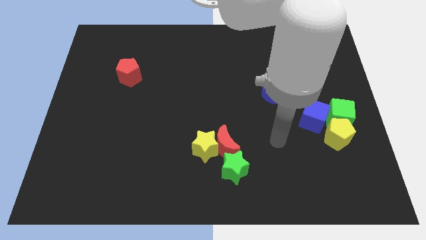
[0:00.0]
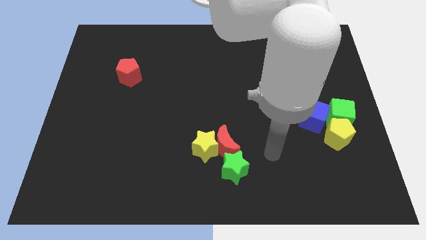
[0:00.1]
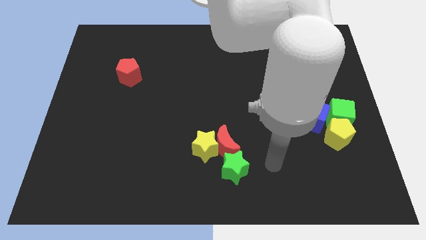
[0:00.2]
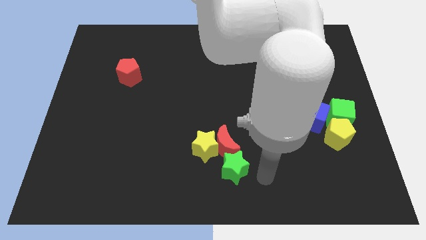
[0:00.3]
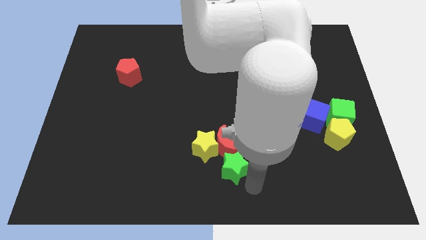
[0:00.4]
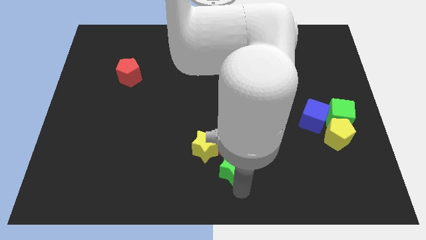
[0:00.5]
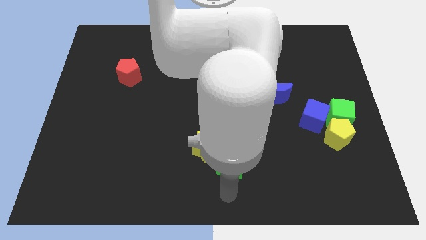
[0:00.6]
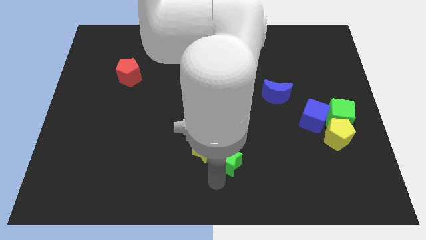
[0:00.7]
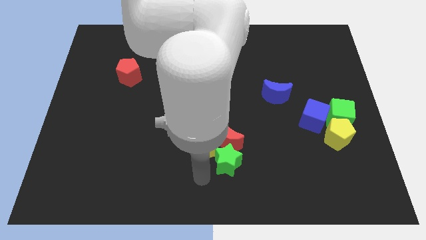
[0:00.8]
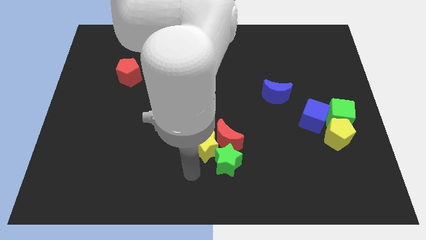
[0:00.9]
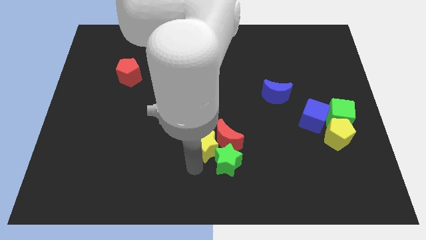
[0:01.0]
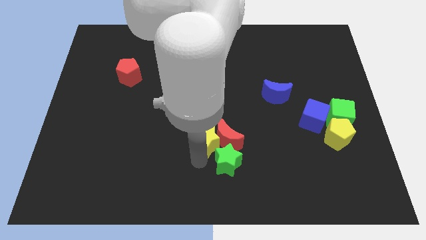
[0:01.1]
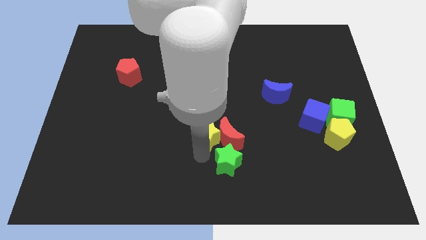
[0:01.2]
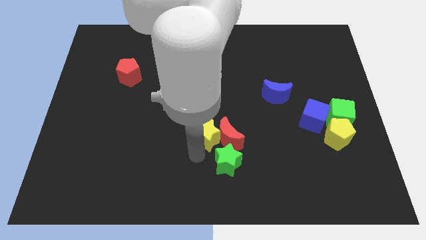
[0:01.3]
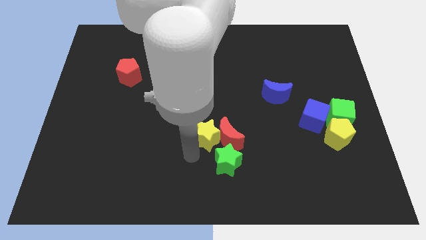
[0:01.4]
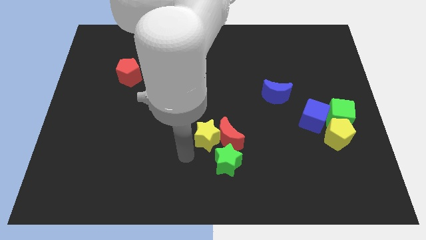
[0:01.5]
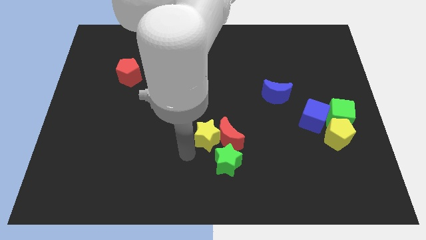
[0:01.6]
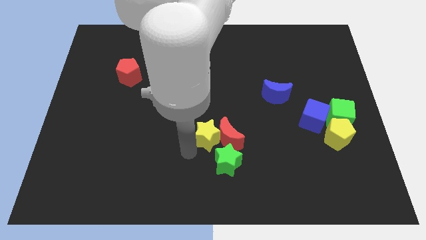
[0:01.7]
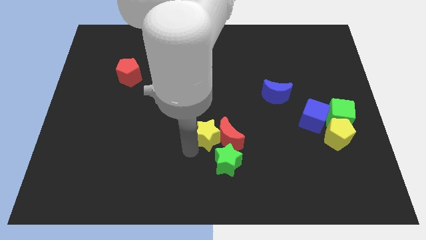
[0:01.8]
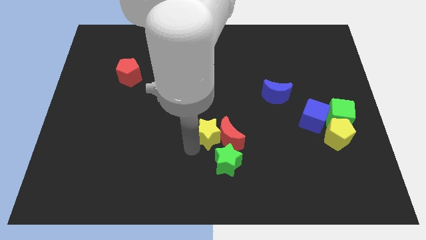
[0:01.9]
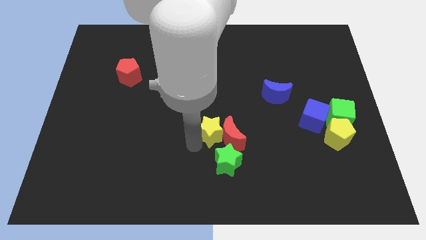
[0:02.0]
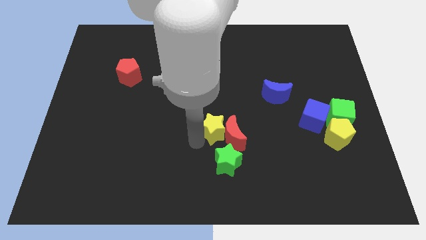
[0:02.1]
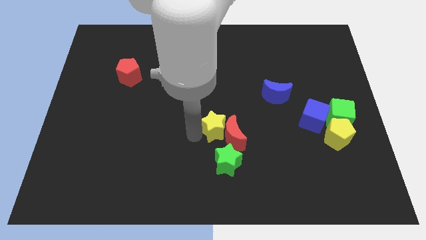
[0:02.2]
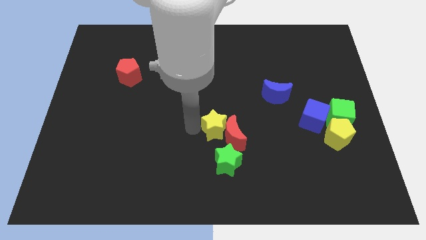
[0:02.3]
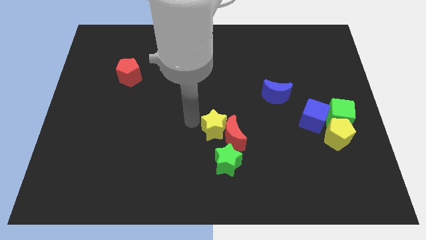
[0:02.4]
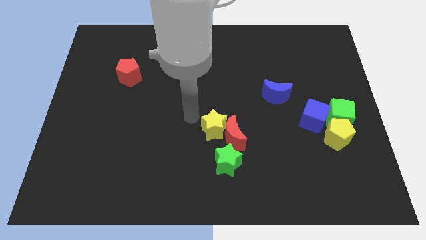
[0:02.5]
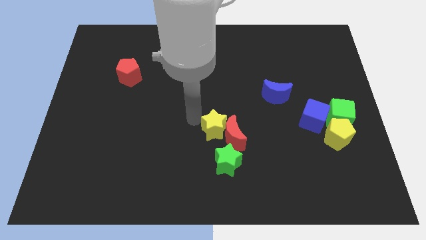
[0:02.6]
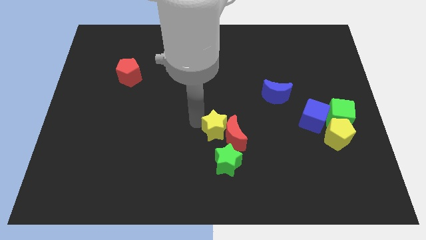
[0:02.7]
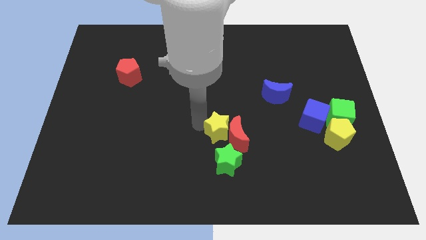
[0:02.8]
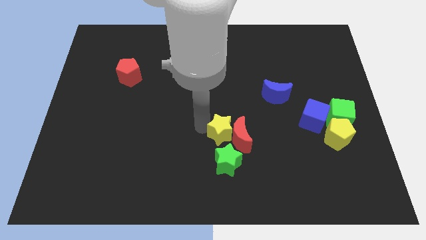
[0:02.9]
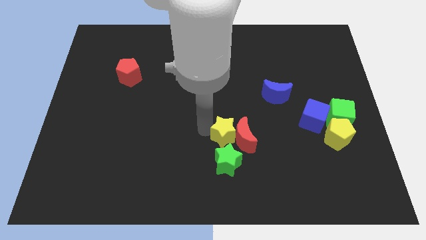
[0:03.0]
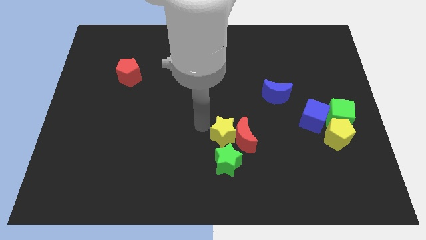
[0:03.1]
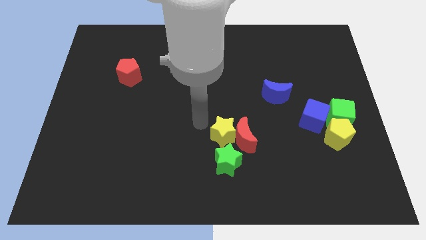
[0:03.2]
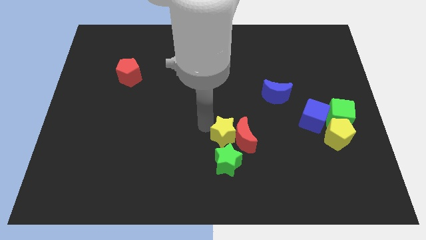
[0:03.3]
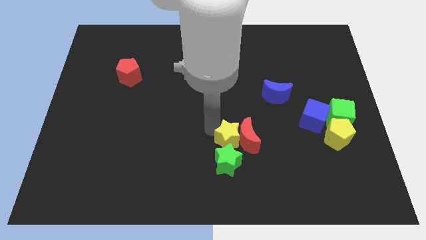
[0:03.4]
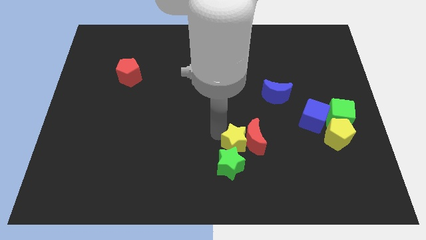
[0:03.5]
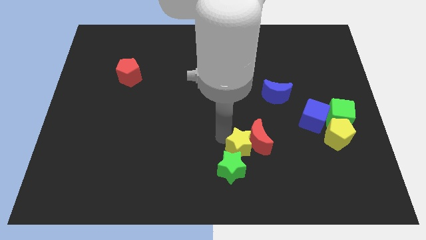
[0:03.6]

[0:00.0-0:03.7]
slightly slide the yellow star to the right

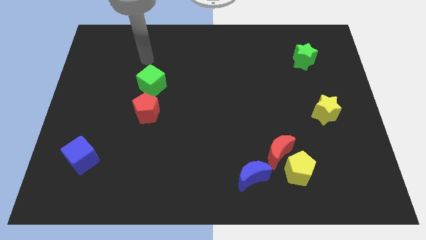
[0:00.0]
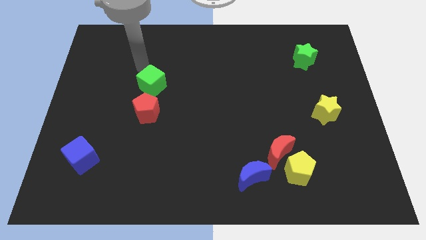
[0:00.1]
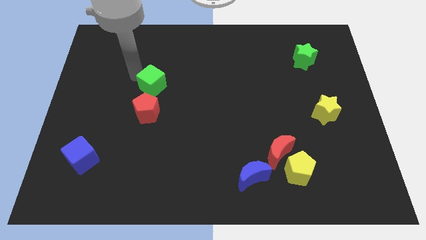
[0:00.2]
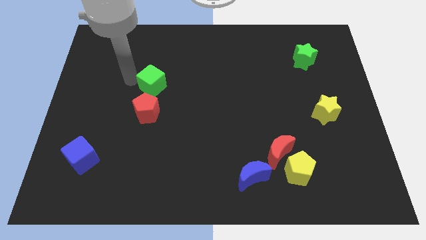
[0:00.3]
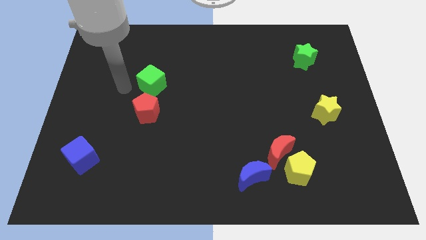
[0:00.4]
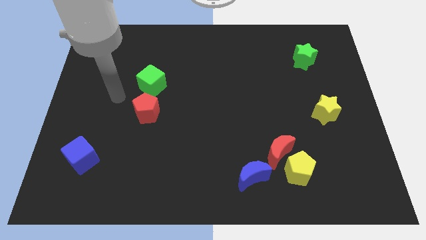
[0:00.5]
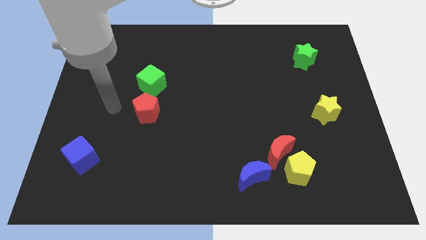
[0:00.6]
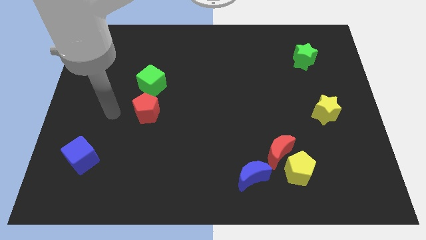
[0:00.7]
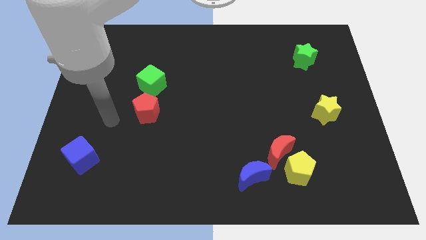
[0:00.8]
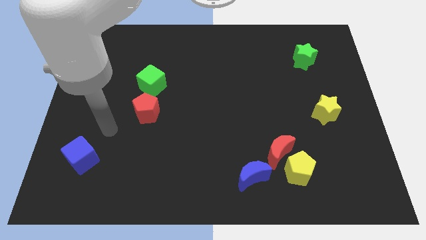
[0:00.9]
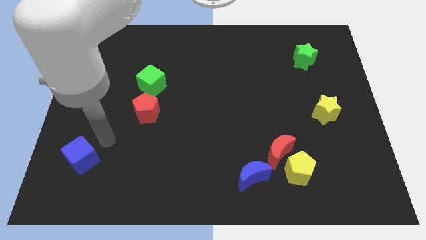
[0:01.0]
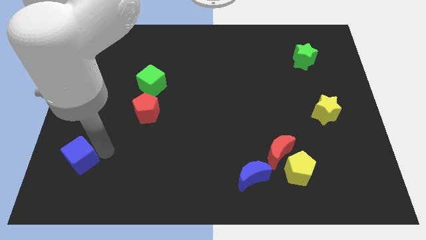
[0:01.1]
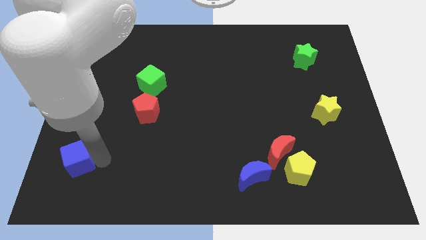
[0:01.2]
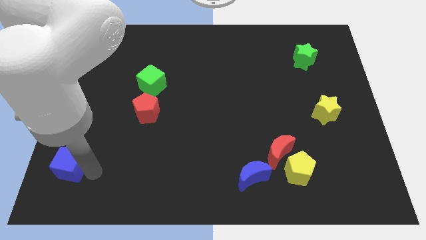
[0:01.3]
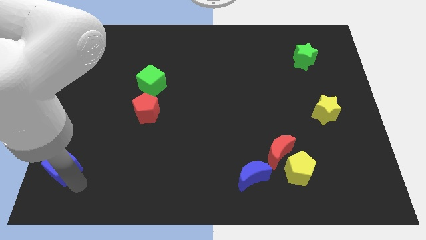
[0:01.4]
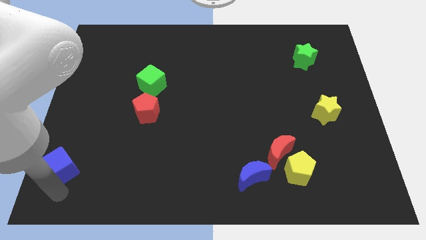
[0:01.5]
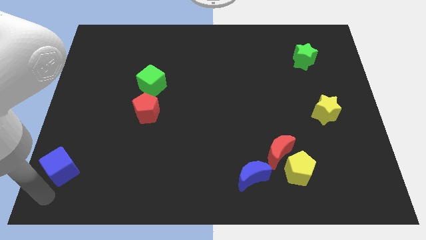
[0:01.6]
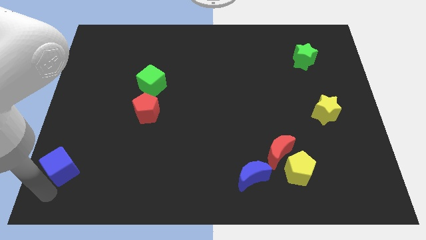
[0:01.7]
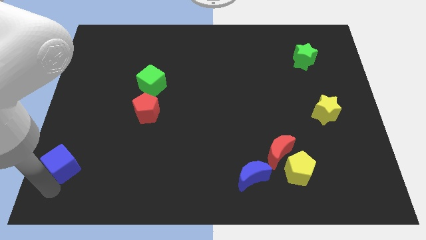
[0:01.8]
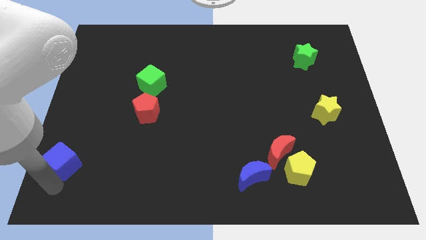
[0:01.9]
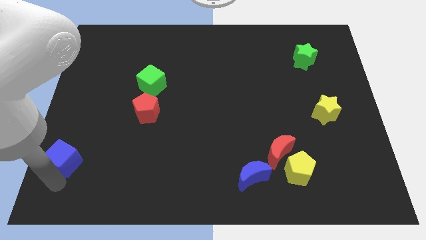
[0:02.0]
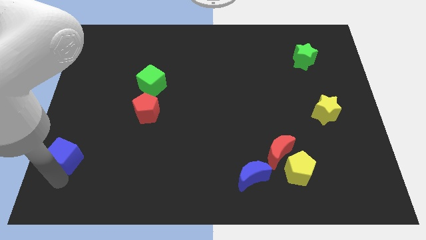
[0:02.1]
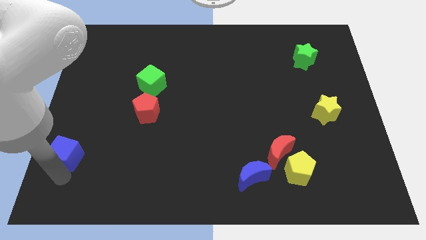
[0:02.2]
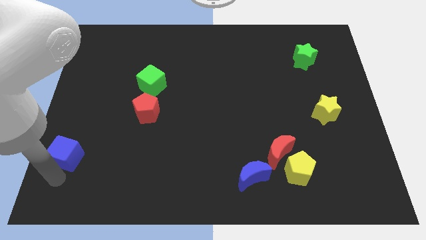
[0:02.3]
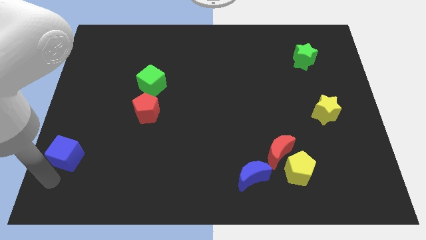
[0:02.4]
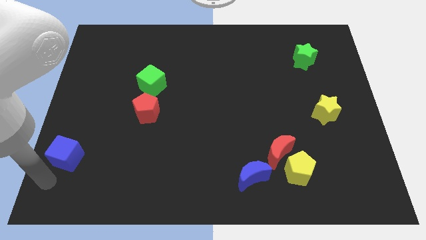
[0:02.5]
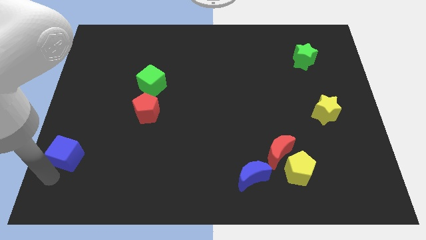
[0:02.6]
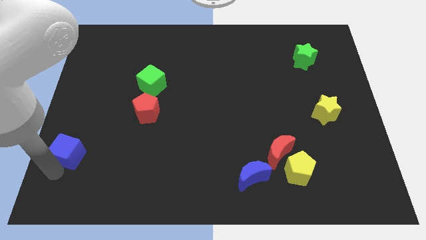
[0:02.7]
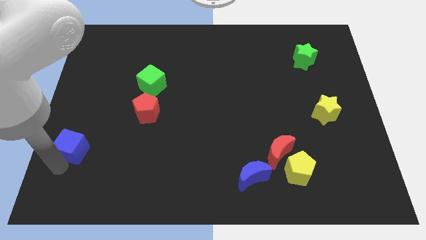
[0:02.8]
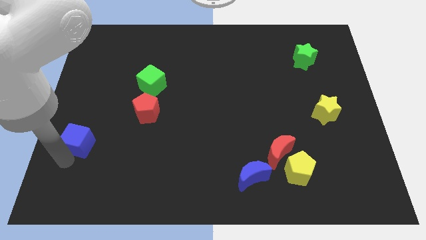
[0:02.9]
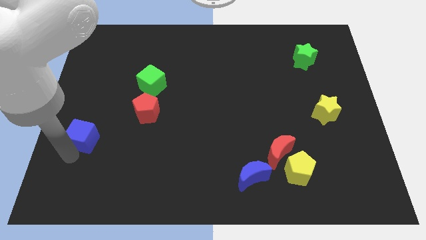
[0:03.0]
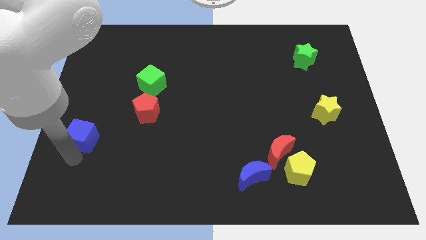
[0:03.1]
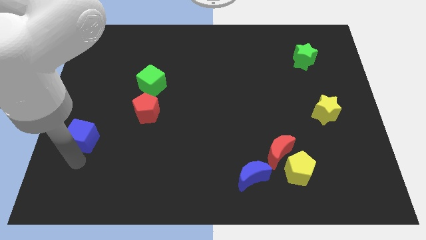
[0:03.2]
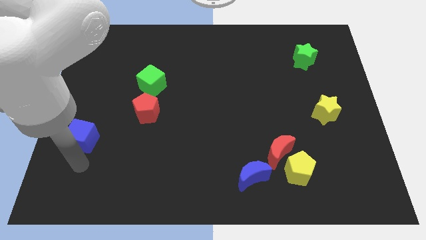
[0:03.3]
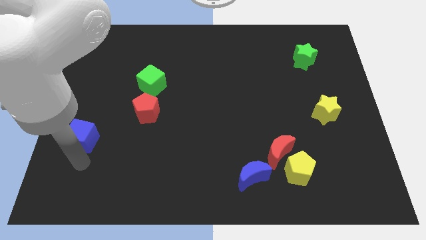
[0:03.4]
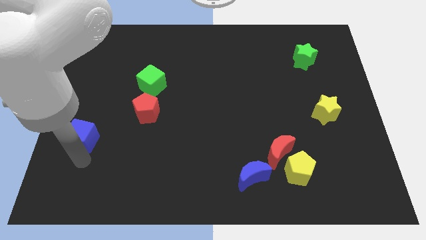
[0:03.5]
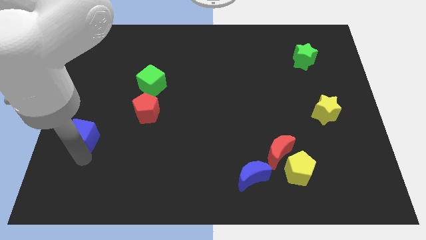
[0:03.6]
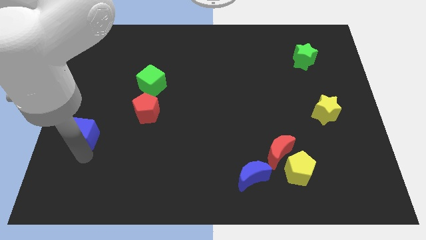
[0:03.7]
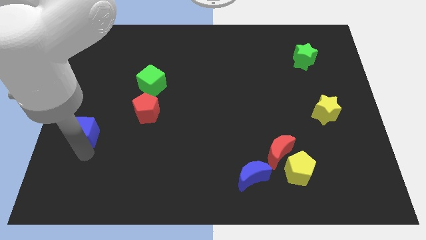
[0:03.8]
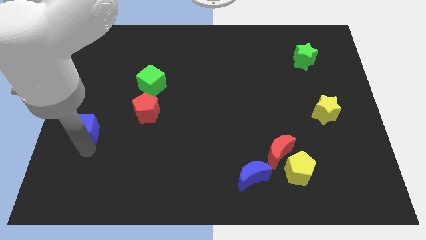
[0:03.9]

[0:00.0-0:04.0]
slightly push the blue cube up
